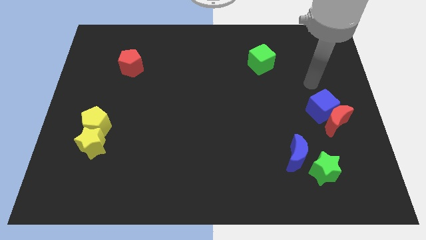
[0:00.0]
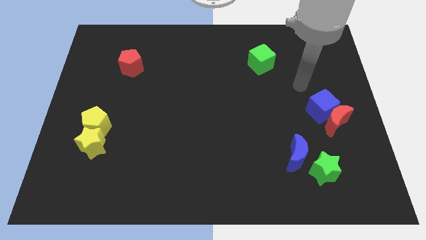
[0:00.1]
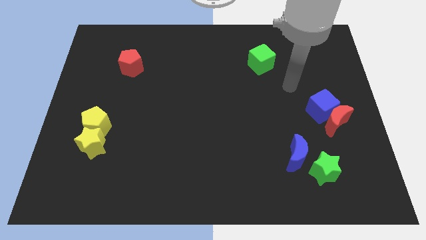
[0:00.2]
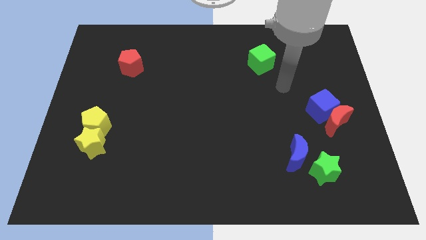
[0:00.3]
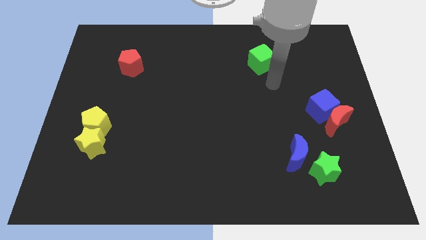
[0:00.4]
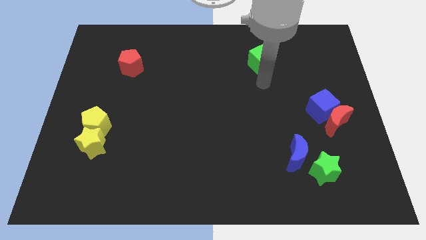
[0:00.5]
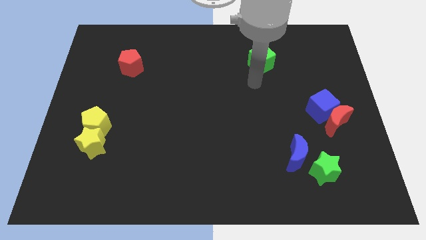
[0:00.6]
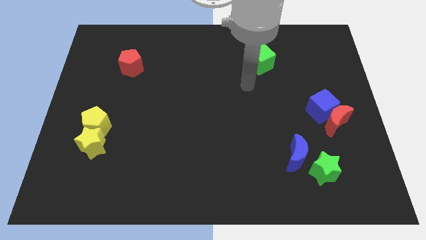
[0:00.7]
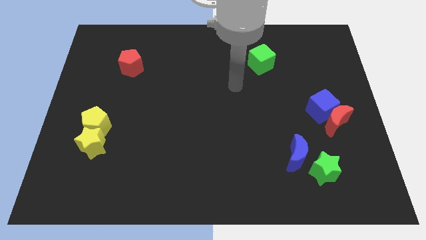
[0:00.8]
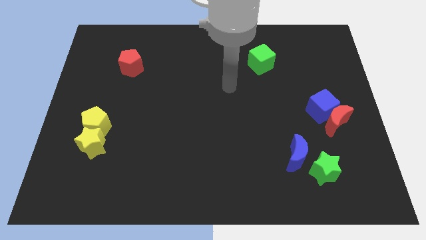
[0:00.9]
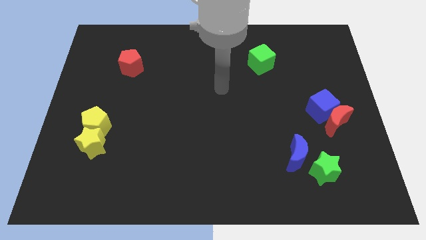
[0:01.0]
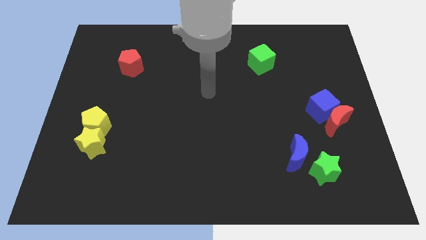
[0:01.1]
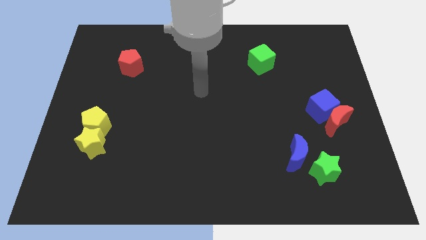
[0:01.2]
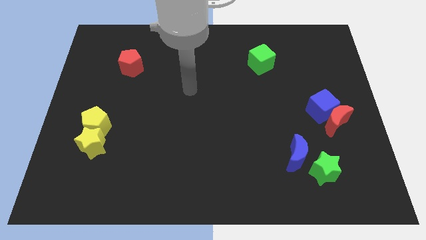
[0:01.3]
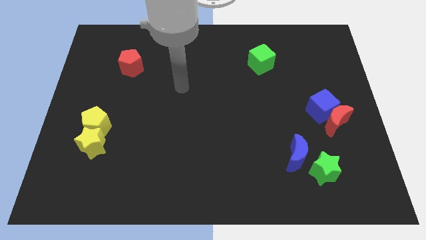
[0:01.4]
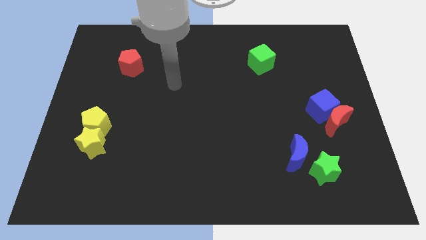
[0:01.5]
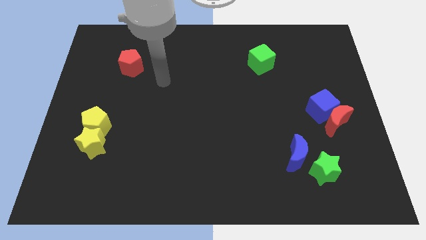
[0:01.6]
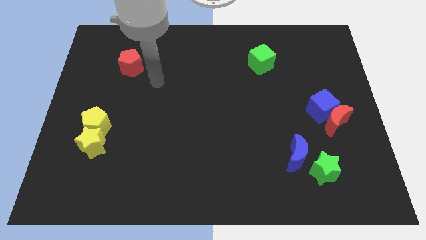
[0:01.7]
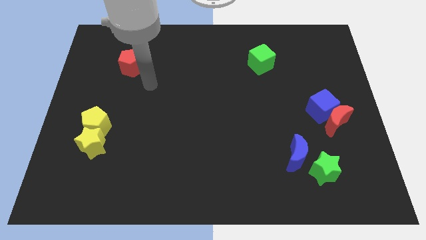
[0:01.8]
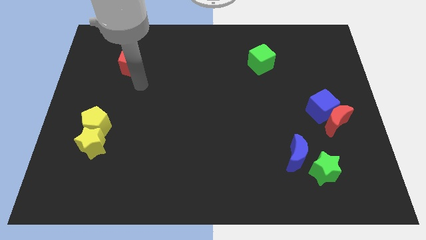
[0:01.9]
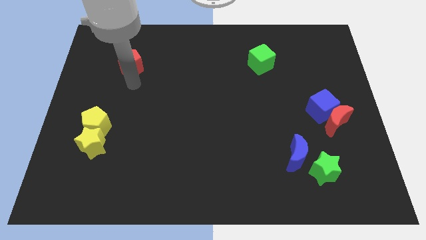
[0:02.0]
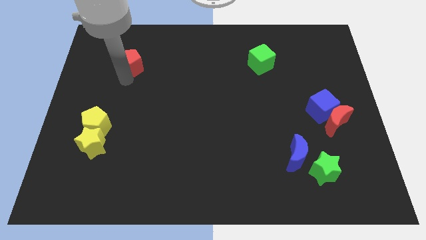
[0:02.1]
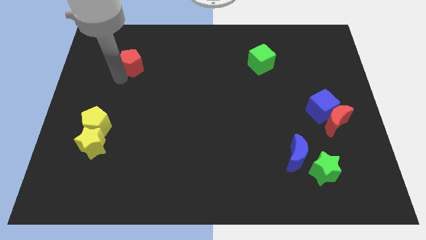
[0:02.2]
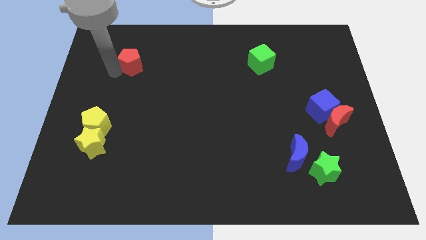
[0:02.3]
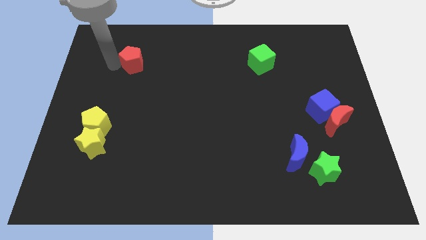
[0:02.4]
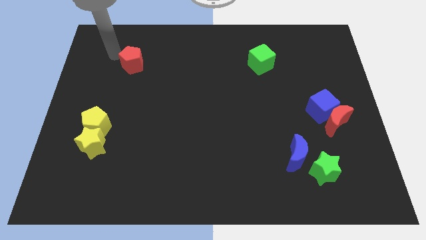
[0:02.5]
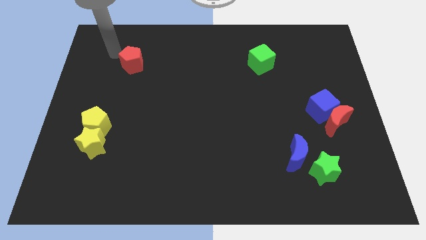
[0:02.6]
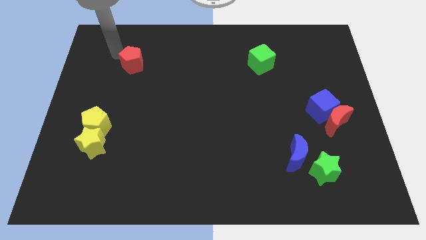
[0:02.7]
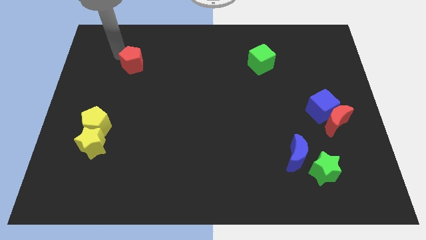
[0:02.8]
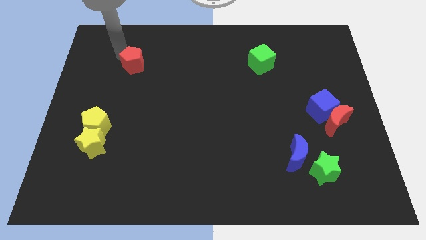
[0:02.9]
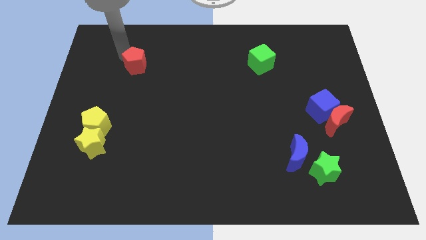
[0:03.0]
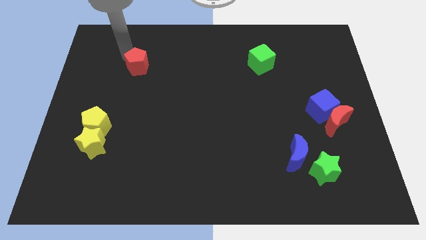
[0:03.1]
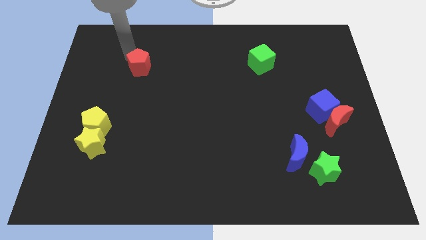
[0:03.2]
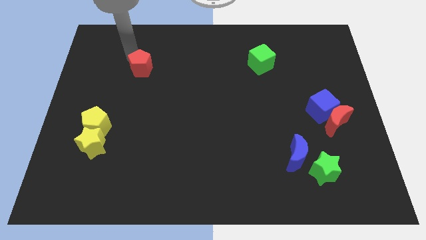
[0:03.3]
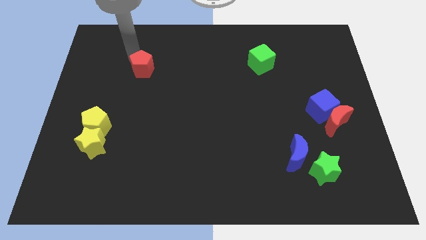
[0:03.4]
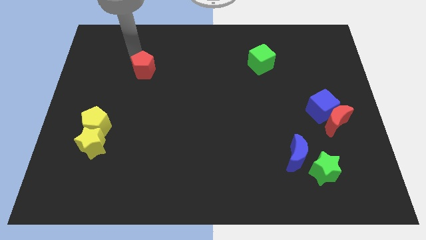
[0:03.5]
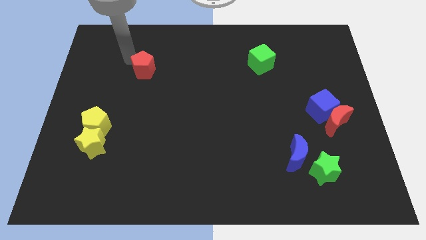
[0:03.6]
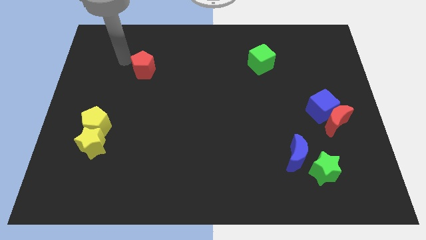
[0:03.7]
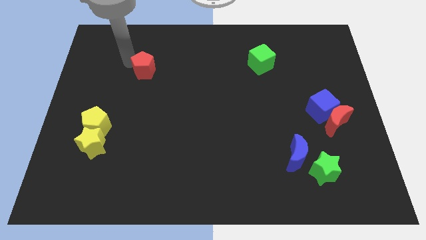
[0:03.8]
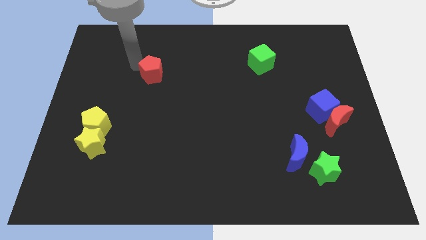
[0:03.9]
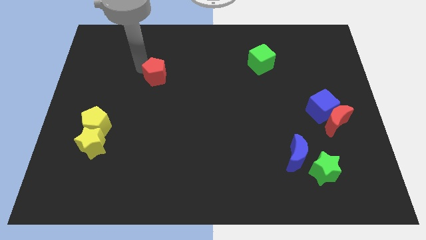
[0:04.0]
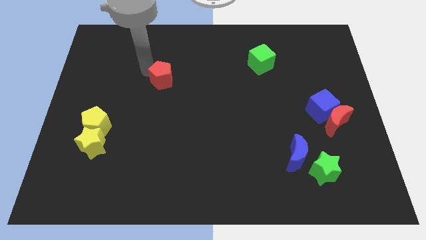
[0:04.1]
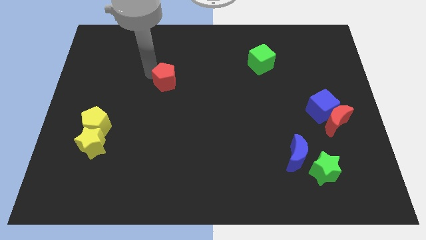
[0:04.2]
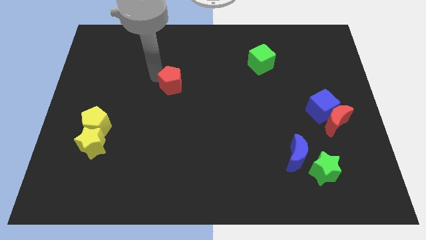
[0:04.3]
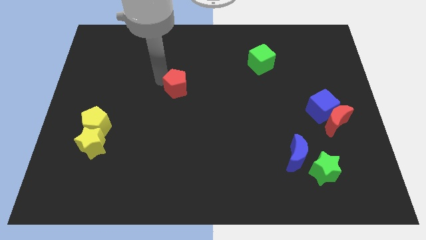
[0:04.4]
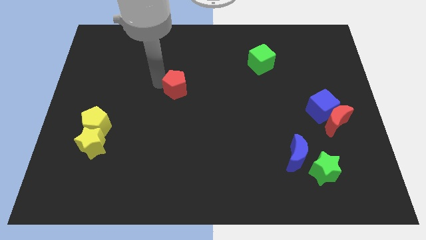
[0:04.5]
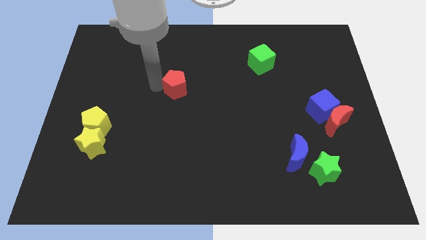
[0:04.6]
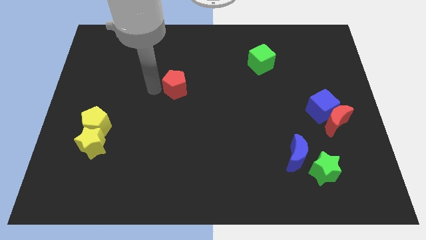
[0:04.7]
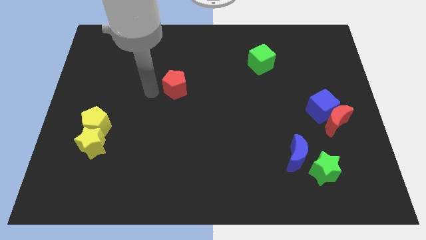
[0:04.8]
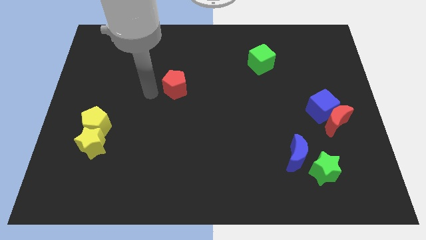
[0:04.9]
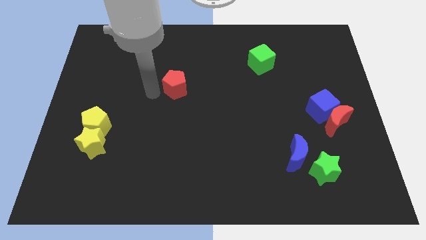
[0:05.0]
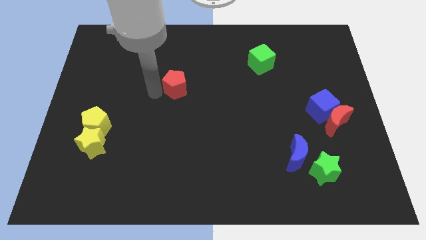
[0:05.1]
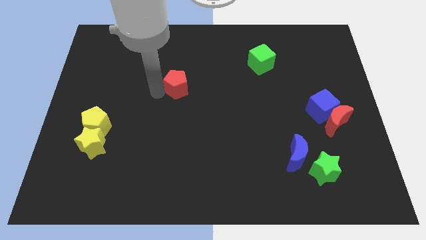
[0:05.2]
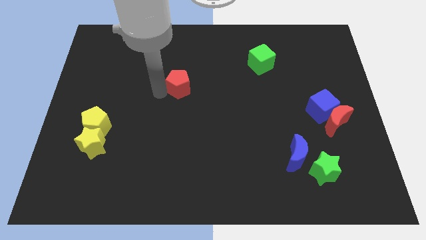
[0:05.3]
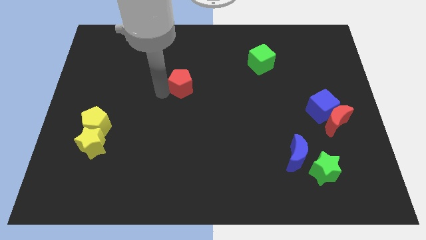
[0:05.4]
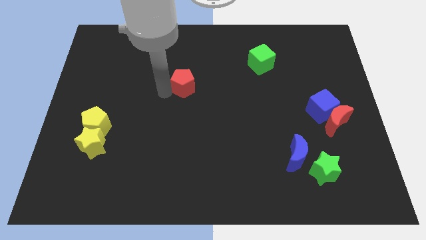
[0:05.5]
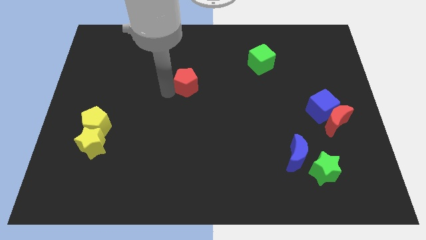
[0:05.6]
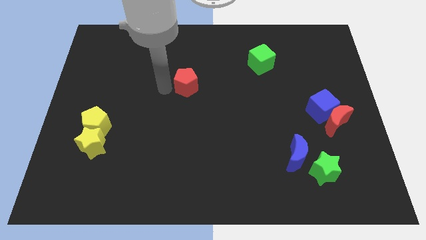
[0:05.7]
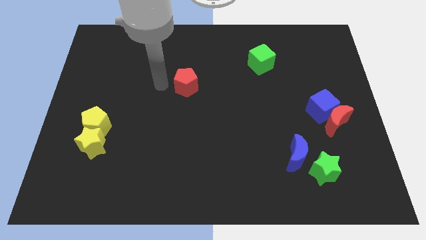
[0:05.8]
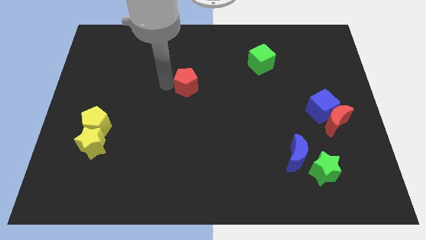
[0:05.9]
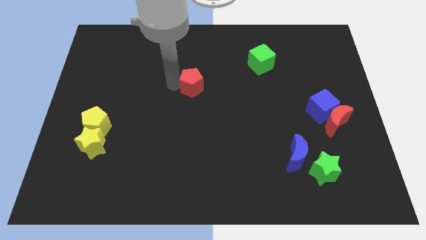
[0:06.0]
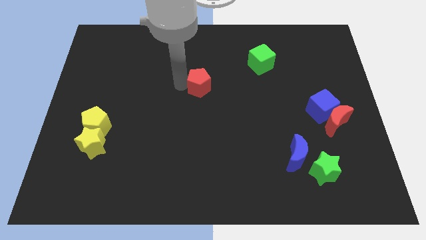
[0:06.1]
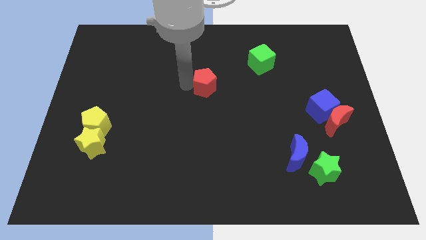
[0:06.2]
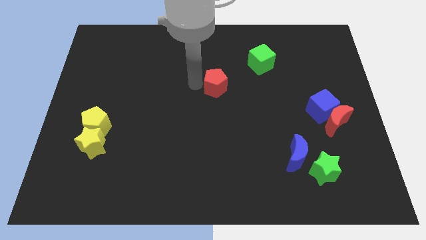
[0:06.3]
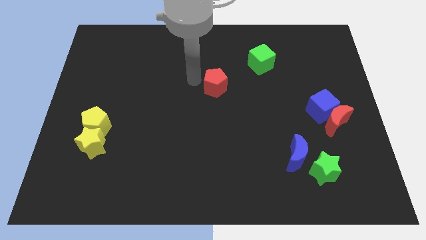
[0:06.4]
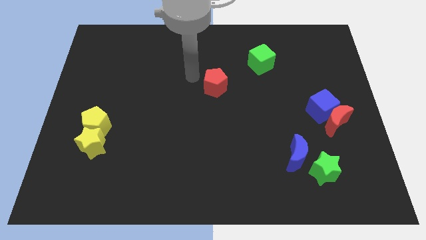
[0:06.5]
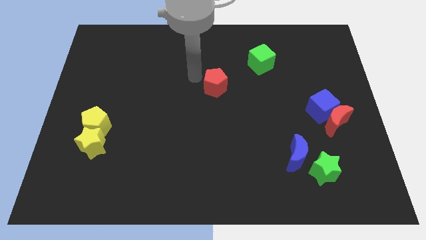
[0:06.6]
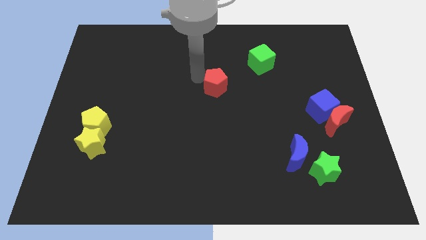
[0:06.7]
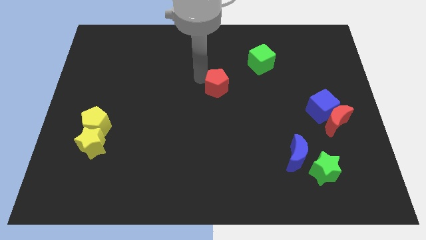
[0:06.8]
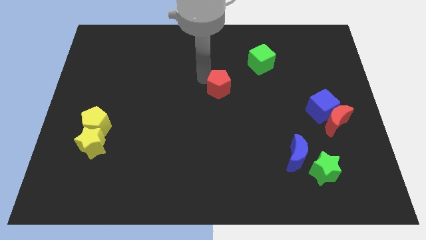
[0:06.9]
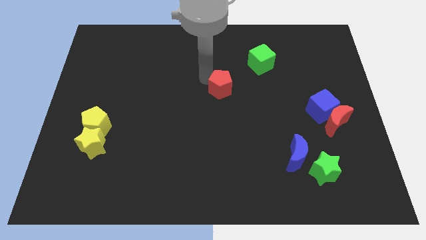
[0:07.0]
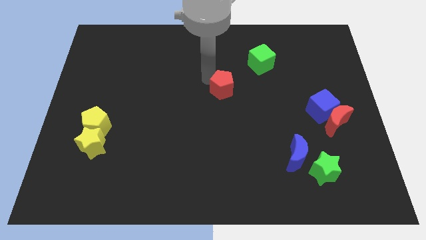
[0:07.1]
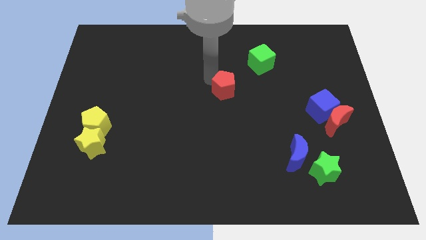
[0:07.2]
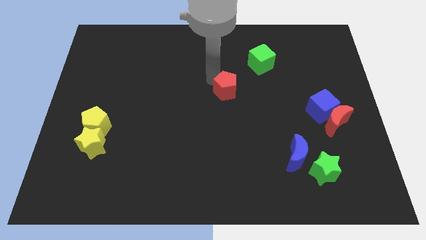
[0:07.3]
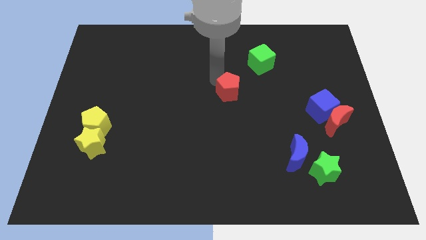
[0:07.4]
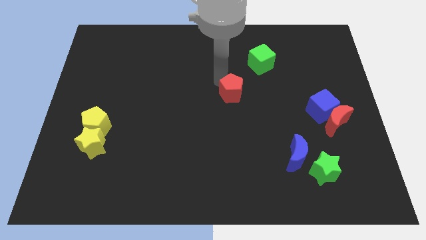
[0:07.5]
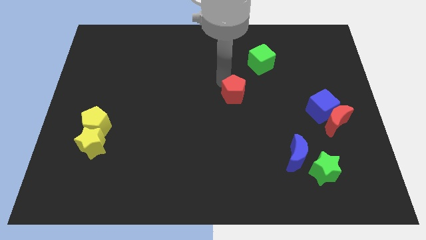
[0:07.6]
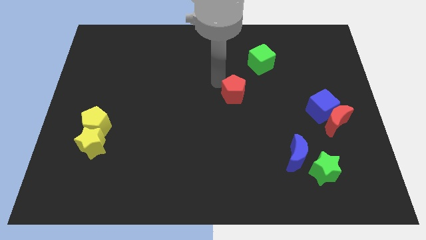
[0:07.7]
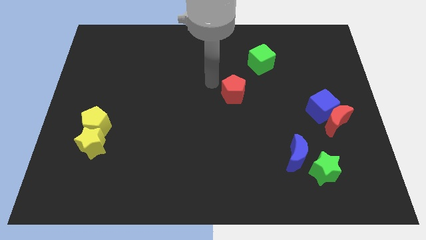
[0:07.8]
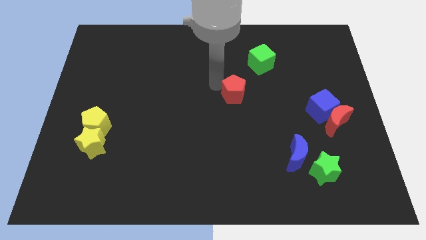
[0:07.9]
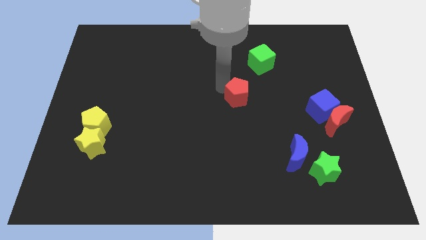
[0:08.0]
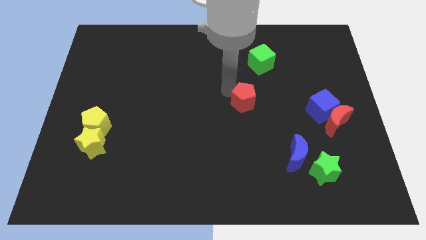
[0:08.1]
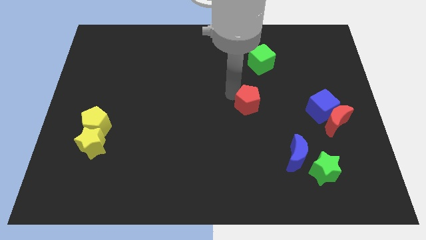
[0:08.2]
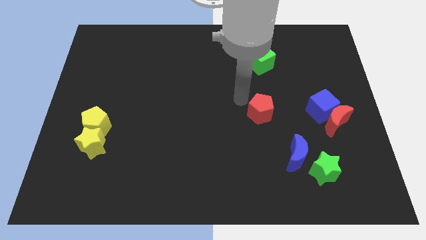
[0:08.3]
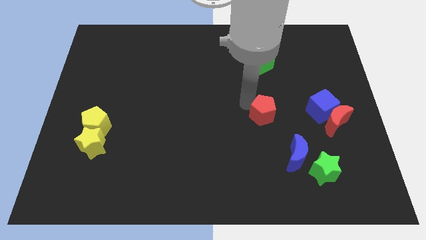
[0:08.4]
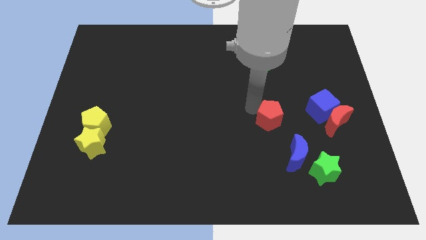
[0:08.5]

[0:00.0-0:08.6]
put the red pentagon above the blue moon
